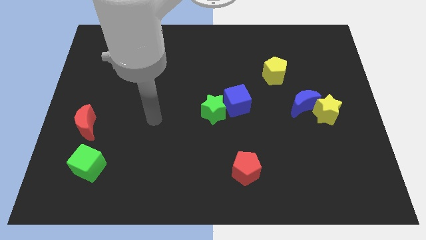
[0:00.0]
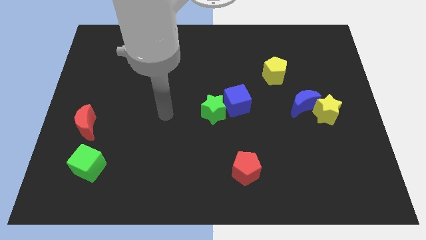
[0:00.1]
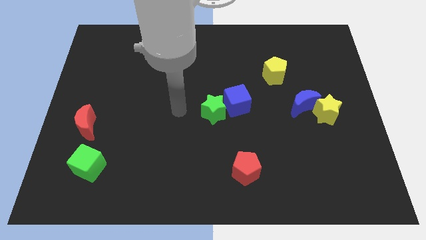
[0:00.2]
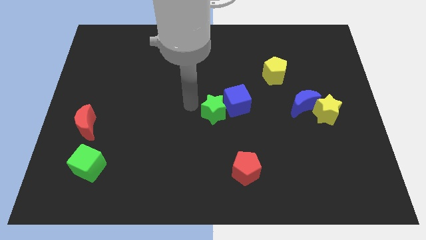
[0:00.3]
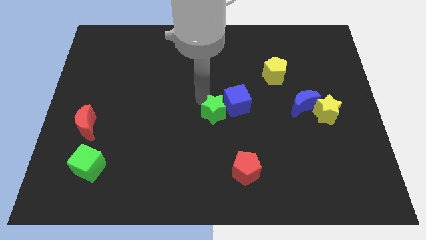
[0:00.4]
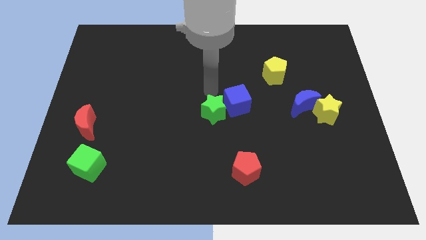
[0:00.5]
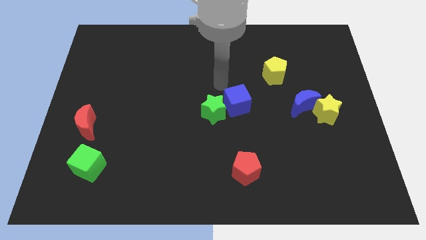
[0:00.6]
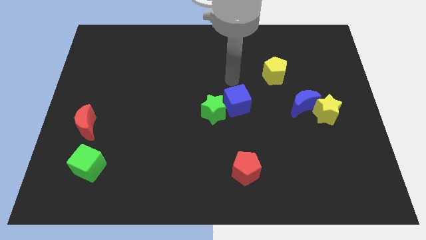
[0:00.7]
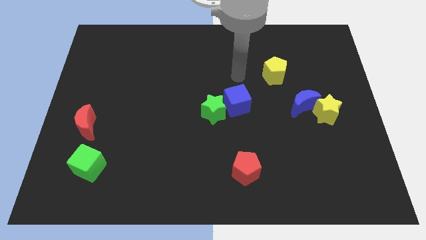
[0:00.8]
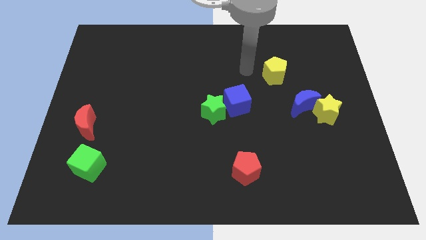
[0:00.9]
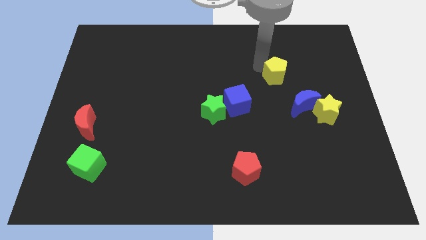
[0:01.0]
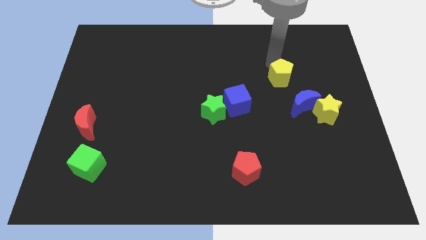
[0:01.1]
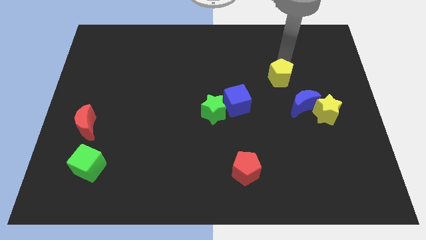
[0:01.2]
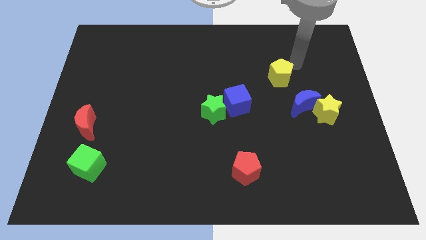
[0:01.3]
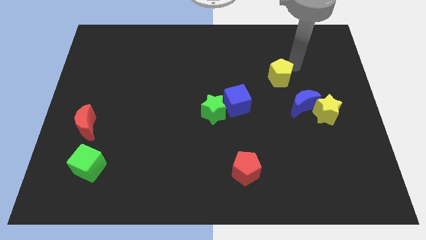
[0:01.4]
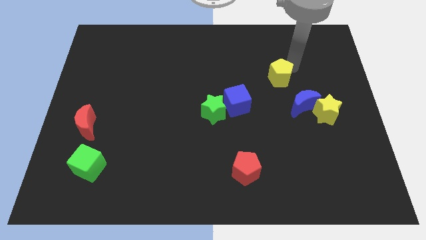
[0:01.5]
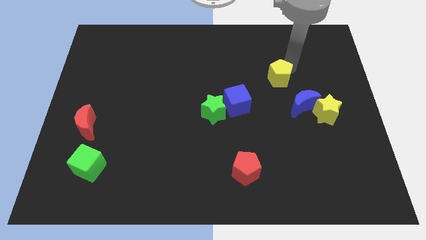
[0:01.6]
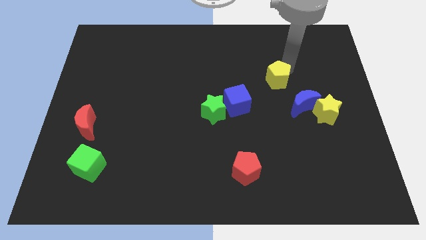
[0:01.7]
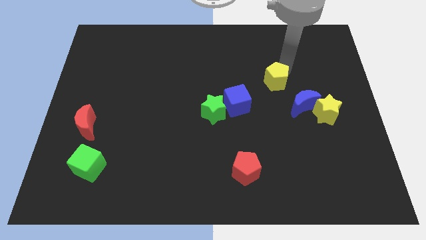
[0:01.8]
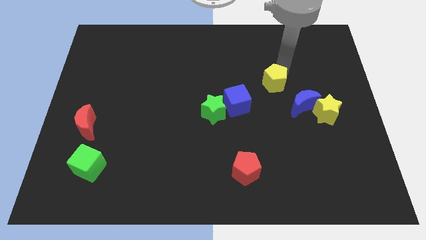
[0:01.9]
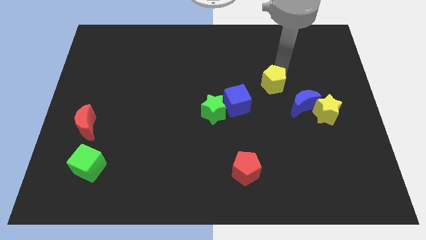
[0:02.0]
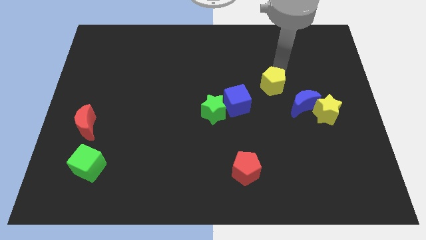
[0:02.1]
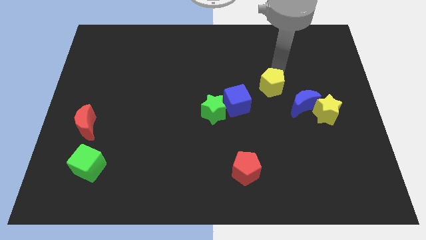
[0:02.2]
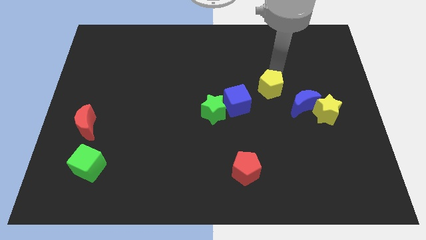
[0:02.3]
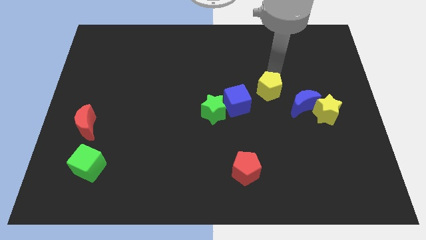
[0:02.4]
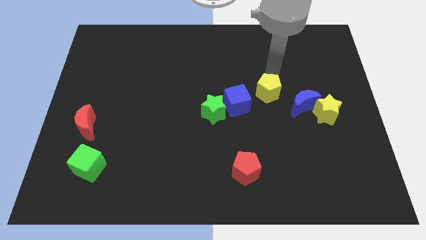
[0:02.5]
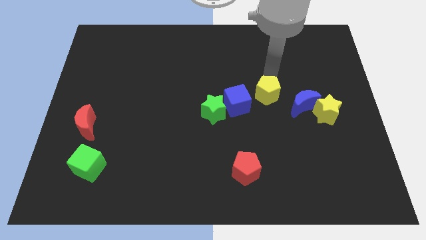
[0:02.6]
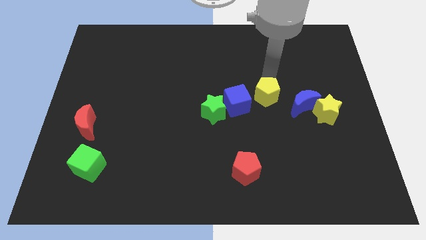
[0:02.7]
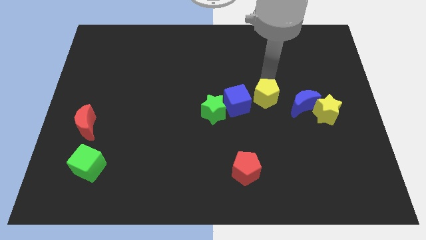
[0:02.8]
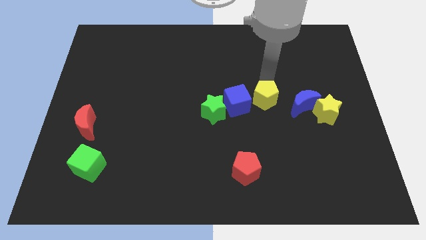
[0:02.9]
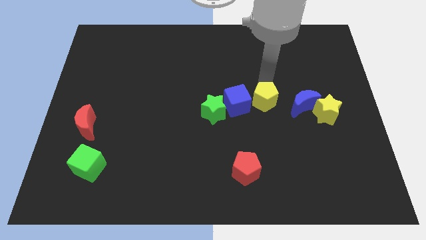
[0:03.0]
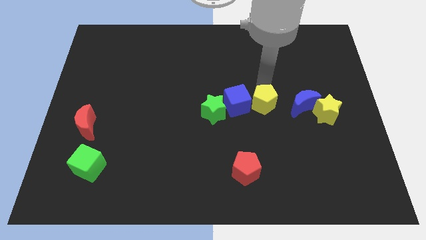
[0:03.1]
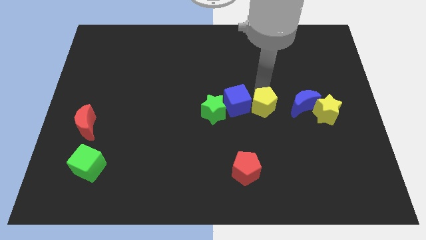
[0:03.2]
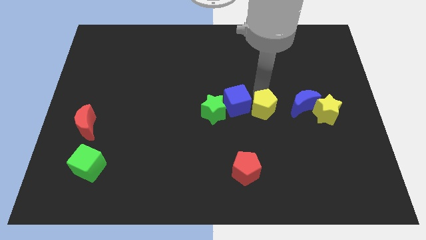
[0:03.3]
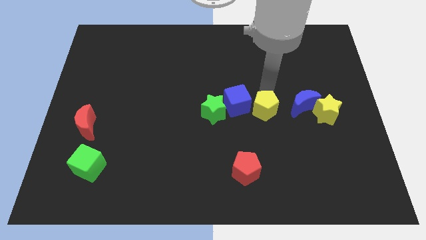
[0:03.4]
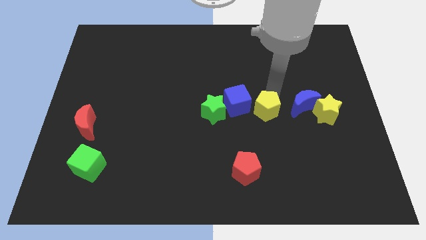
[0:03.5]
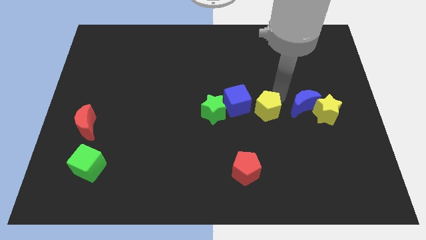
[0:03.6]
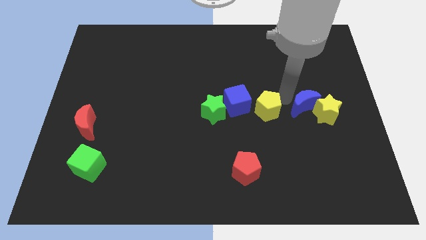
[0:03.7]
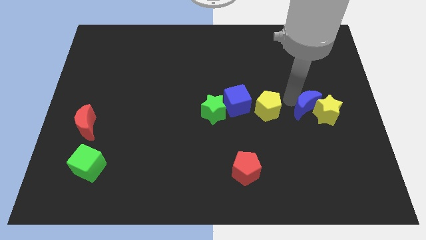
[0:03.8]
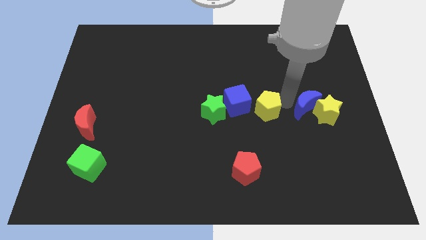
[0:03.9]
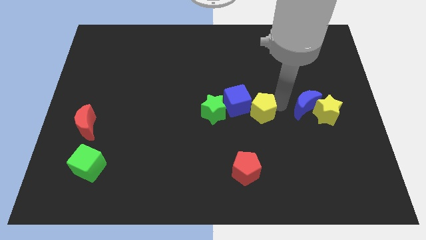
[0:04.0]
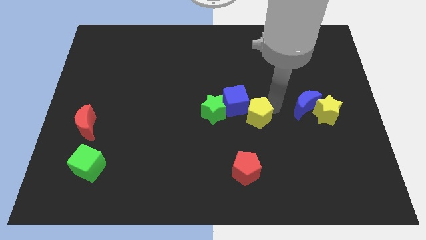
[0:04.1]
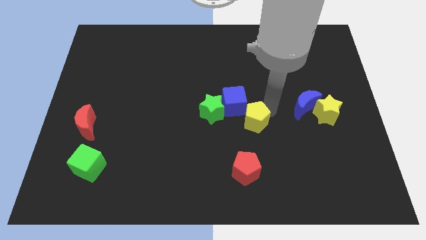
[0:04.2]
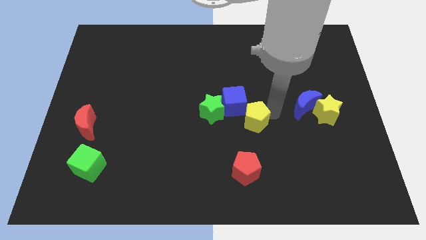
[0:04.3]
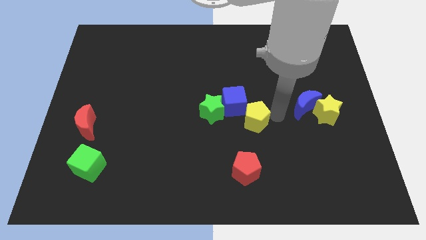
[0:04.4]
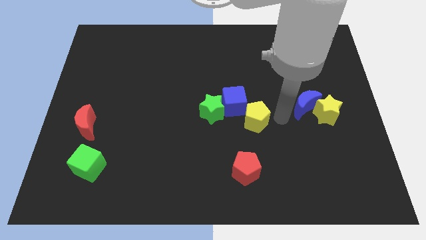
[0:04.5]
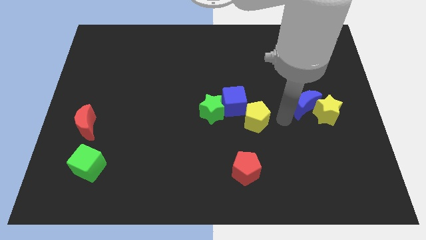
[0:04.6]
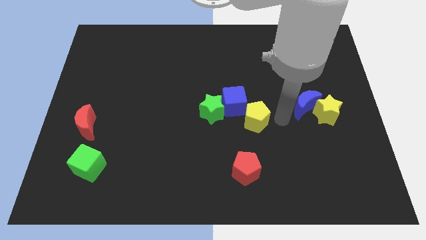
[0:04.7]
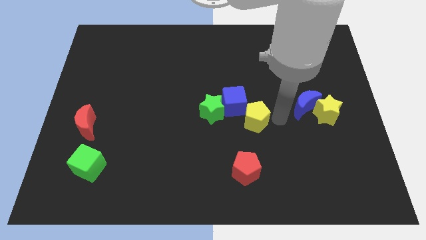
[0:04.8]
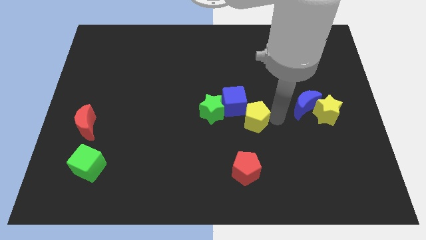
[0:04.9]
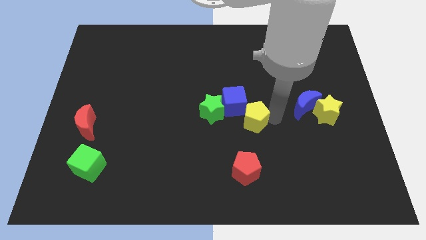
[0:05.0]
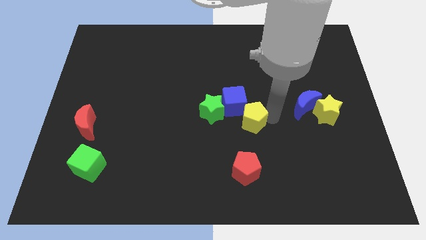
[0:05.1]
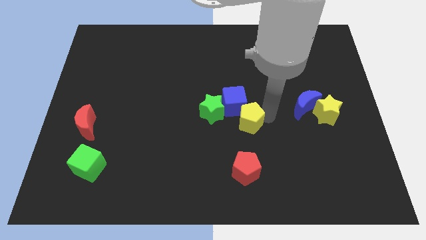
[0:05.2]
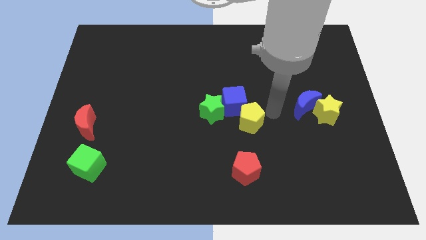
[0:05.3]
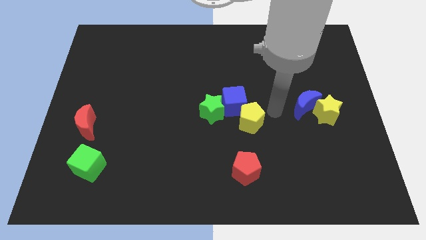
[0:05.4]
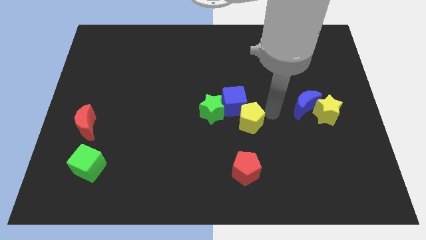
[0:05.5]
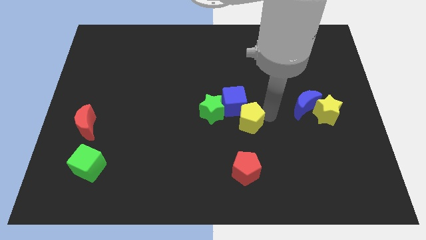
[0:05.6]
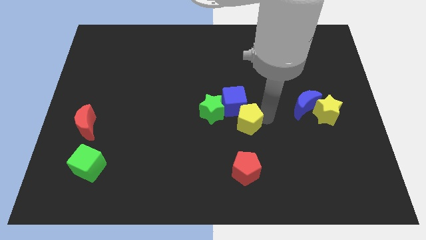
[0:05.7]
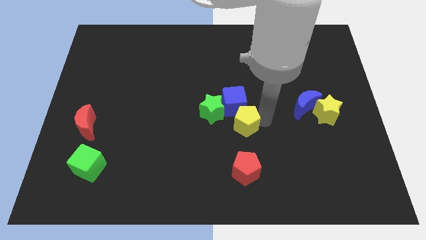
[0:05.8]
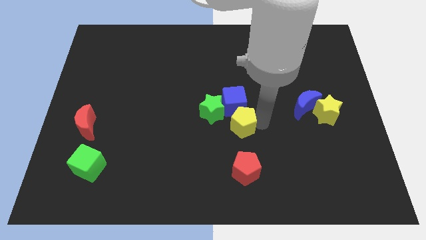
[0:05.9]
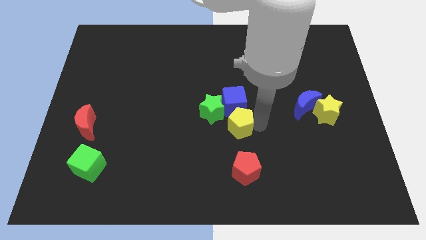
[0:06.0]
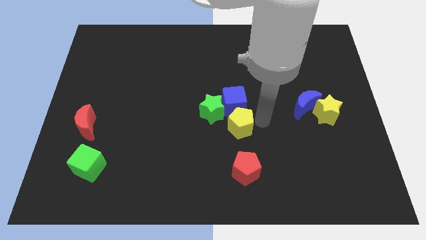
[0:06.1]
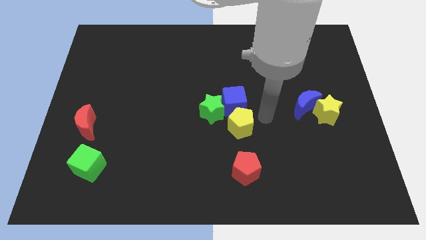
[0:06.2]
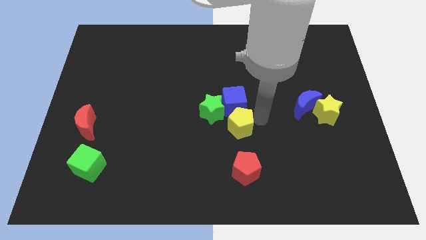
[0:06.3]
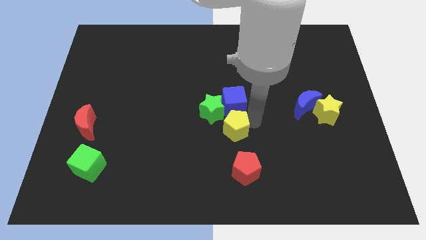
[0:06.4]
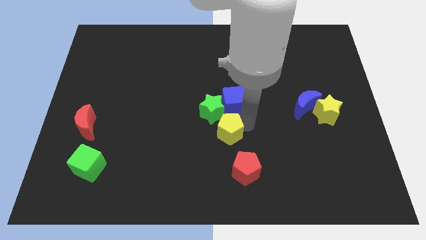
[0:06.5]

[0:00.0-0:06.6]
slide the yellow pentagon diagonally down and left

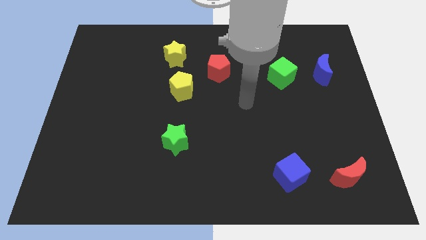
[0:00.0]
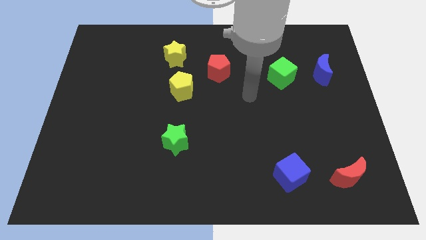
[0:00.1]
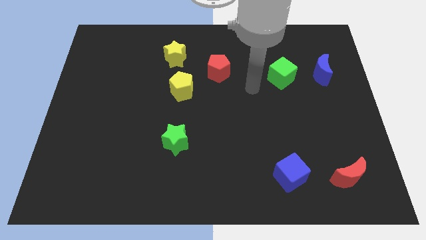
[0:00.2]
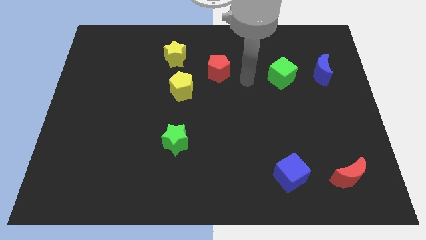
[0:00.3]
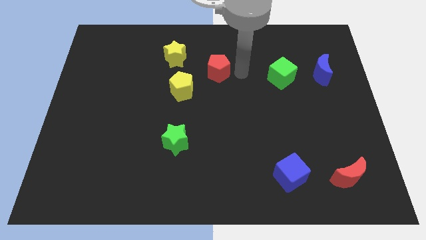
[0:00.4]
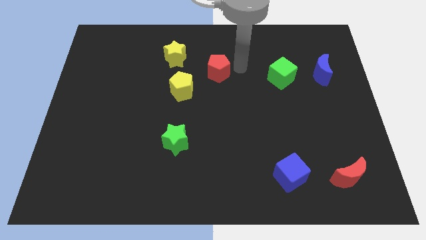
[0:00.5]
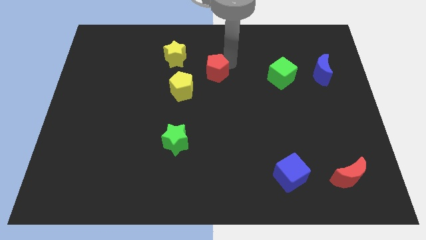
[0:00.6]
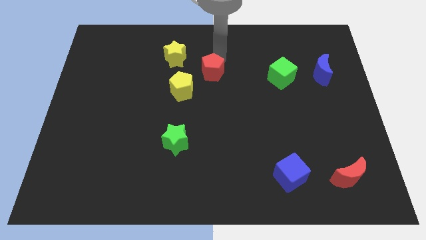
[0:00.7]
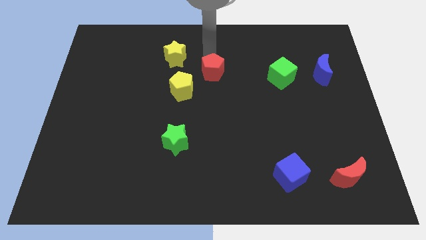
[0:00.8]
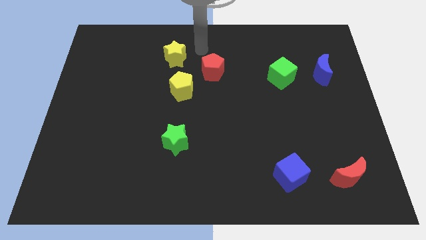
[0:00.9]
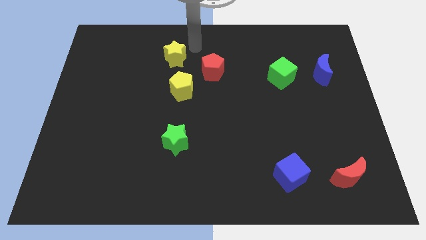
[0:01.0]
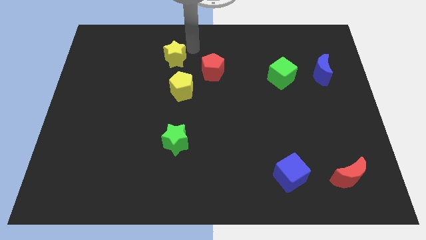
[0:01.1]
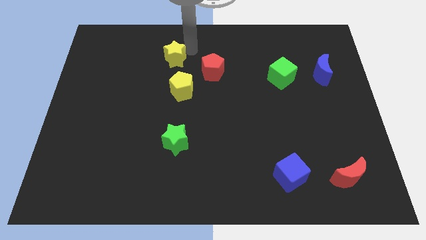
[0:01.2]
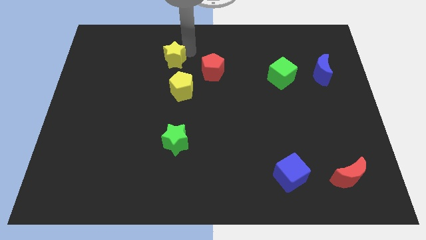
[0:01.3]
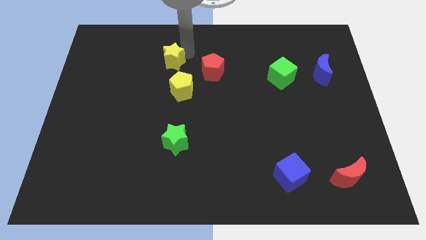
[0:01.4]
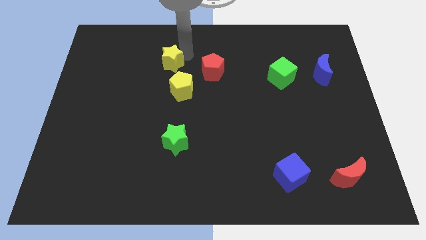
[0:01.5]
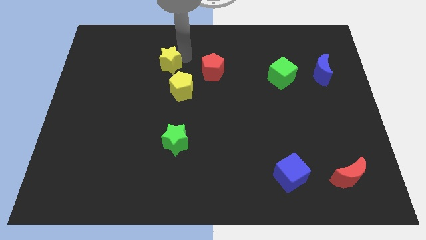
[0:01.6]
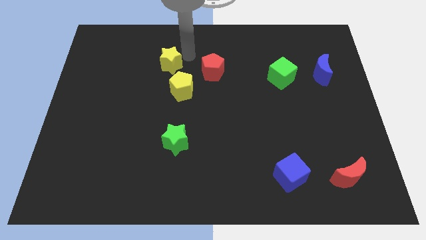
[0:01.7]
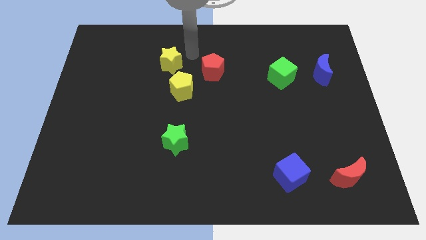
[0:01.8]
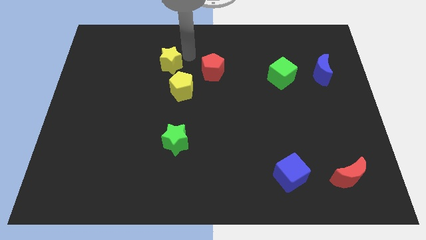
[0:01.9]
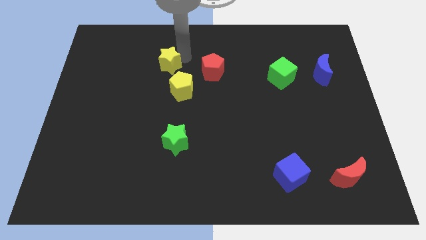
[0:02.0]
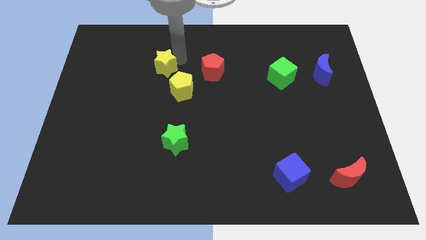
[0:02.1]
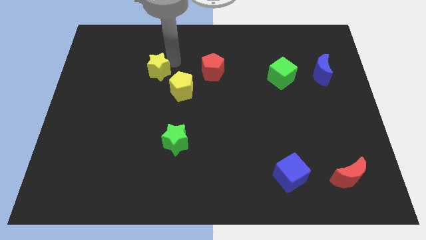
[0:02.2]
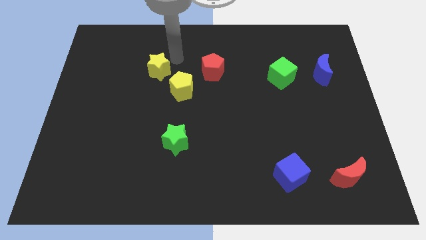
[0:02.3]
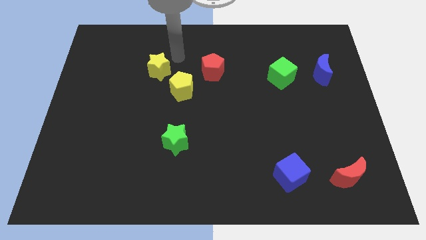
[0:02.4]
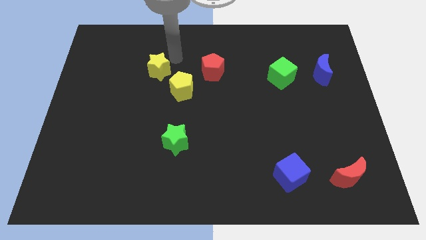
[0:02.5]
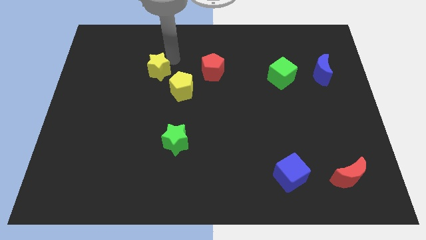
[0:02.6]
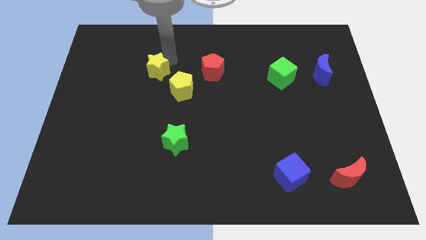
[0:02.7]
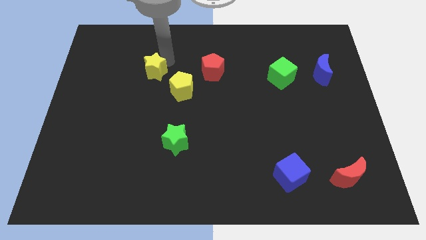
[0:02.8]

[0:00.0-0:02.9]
slide the yellow star down and to the left a bit
